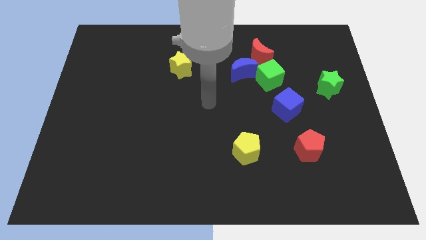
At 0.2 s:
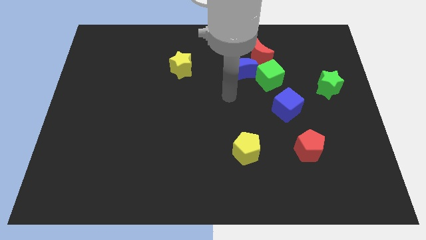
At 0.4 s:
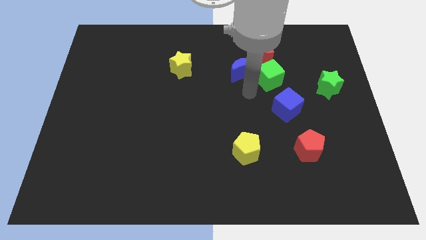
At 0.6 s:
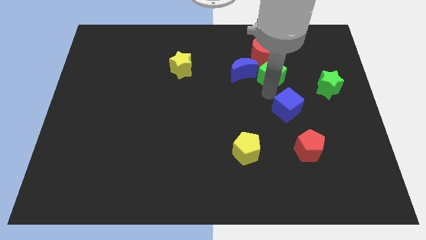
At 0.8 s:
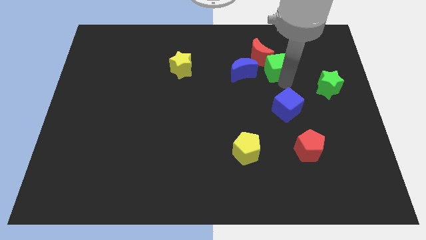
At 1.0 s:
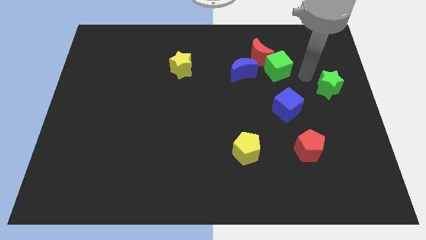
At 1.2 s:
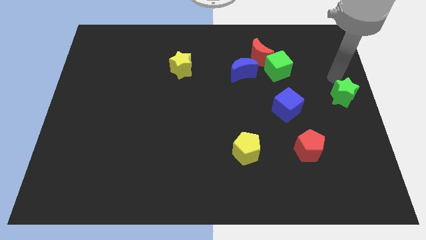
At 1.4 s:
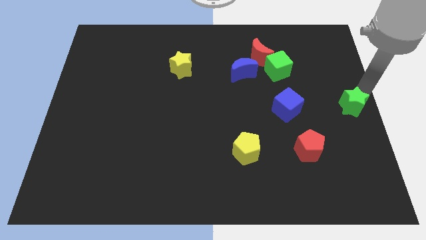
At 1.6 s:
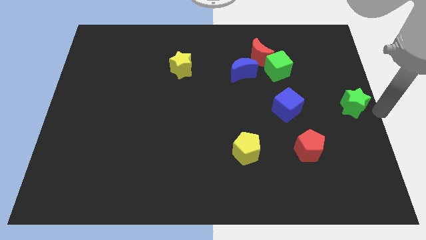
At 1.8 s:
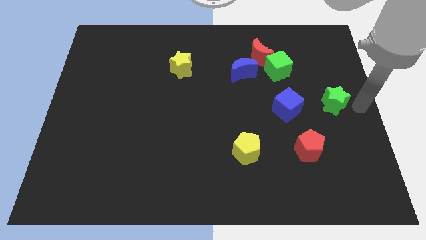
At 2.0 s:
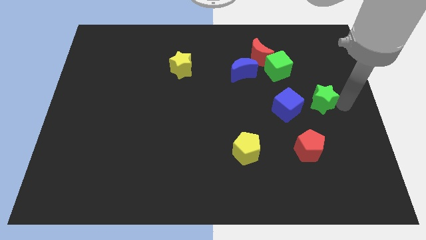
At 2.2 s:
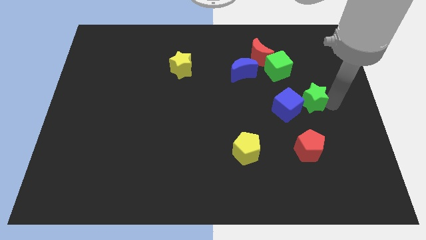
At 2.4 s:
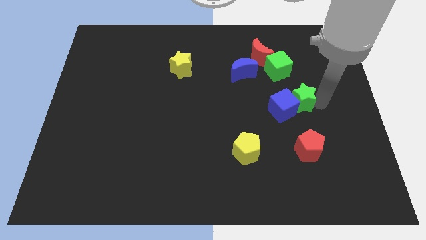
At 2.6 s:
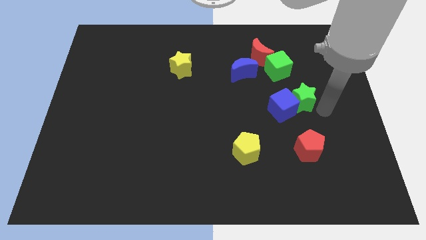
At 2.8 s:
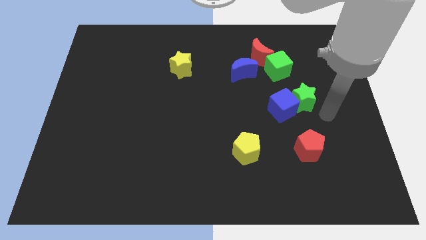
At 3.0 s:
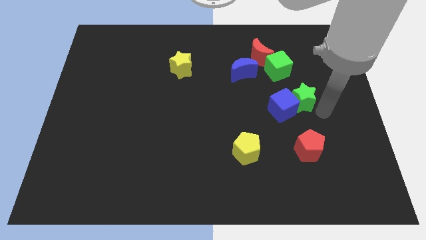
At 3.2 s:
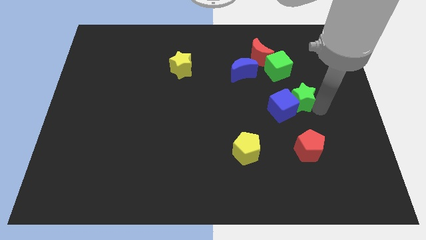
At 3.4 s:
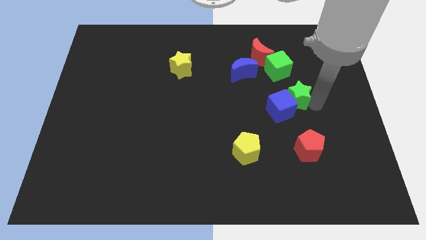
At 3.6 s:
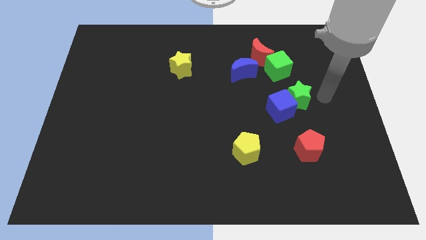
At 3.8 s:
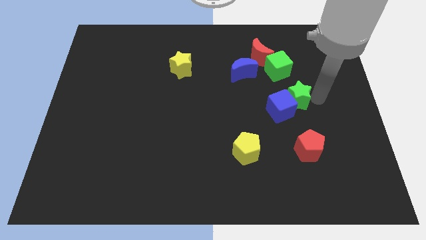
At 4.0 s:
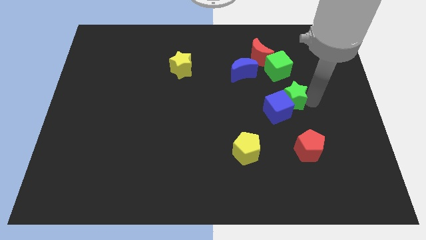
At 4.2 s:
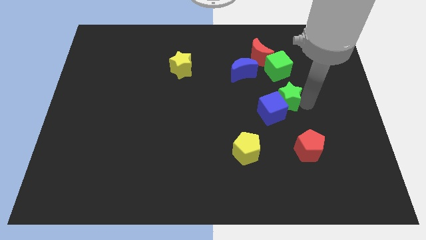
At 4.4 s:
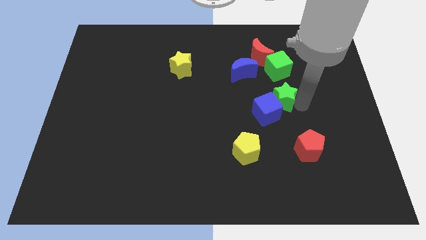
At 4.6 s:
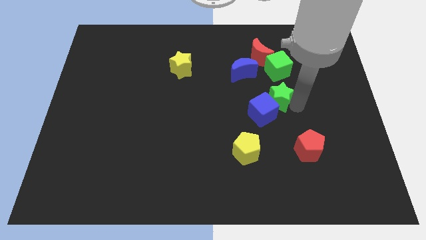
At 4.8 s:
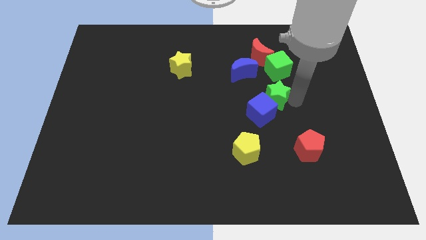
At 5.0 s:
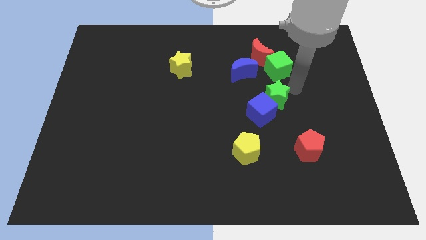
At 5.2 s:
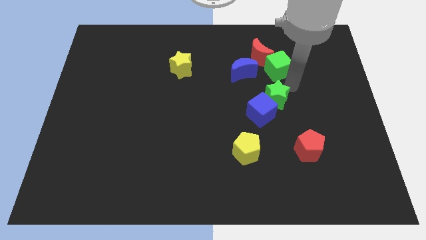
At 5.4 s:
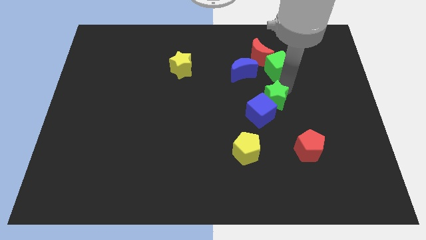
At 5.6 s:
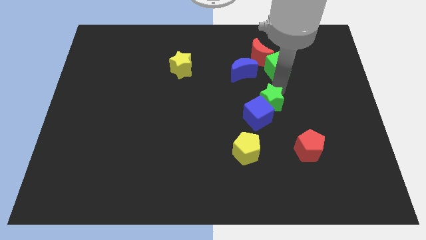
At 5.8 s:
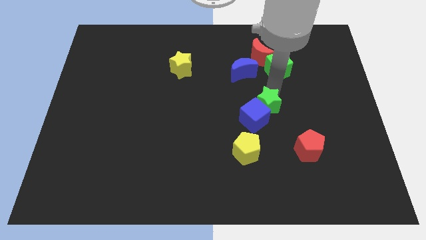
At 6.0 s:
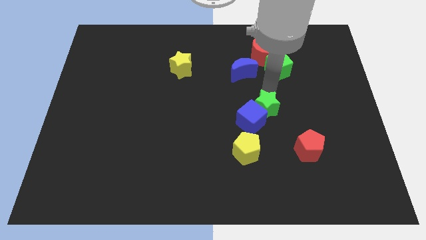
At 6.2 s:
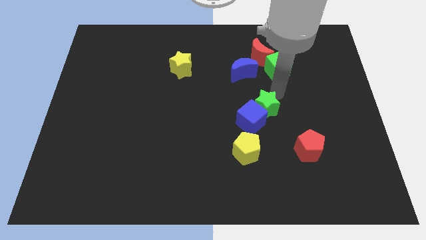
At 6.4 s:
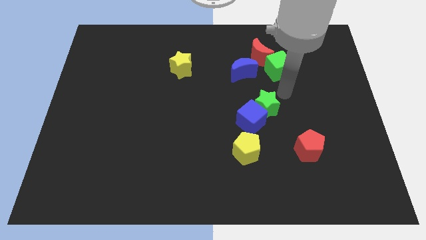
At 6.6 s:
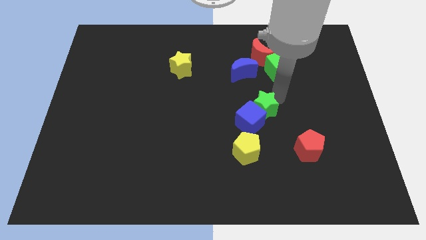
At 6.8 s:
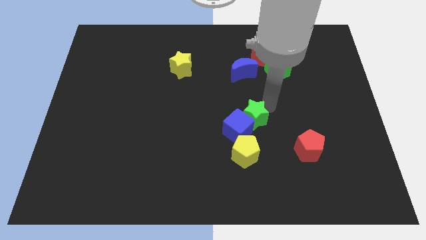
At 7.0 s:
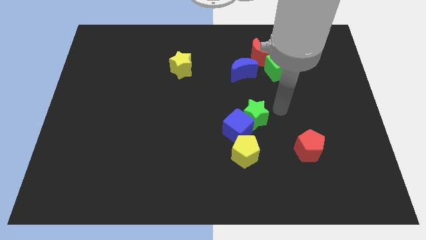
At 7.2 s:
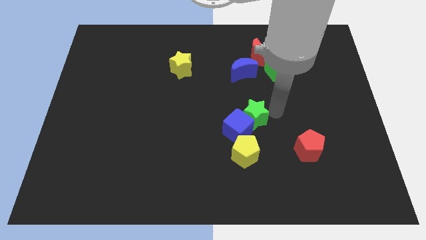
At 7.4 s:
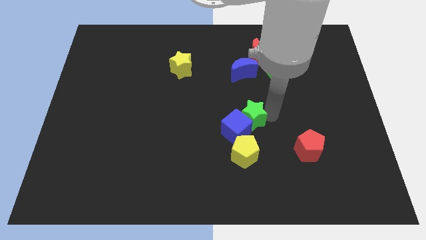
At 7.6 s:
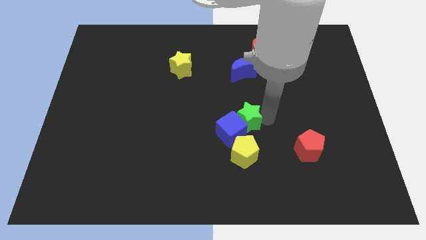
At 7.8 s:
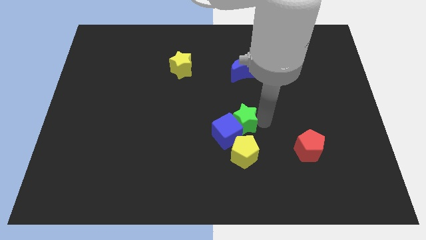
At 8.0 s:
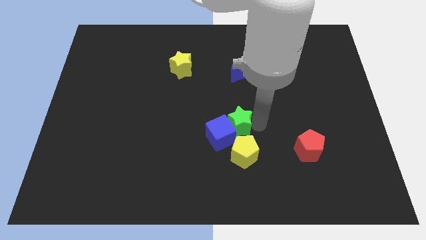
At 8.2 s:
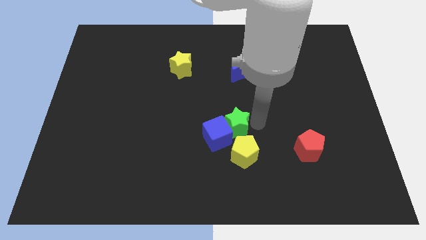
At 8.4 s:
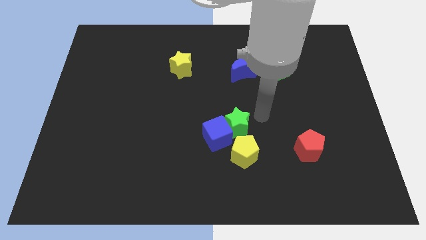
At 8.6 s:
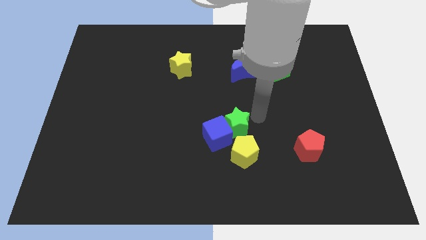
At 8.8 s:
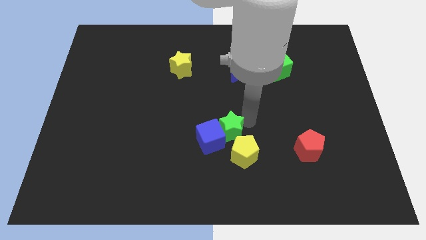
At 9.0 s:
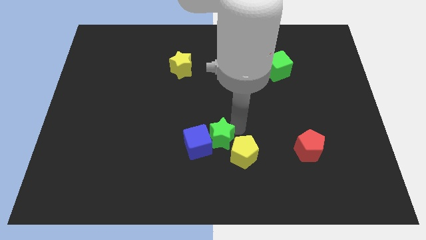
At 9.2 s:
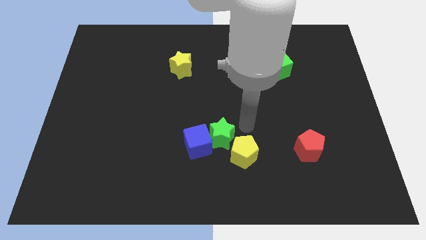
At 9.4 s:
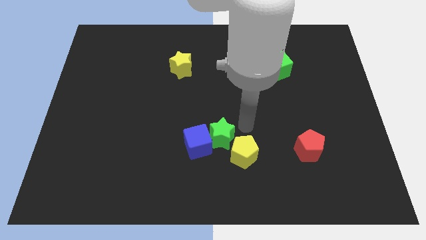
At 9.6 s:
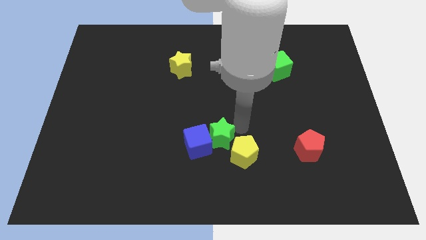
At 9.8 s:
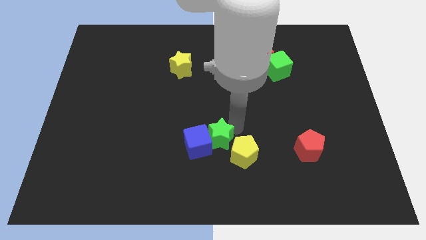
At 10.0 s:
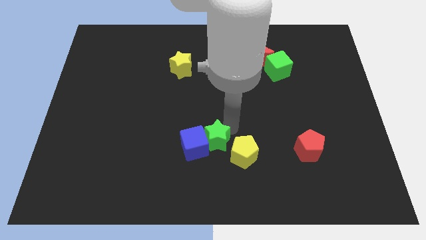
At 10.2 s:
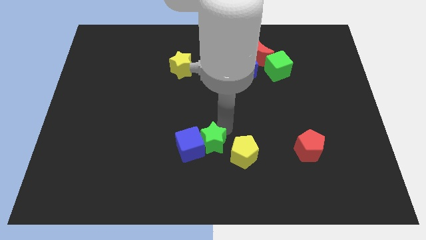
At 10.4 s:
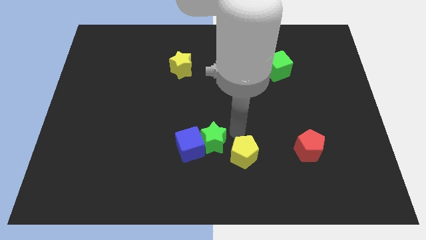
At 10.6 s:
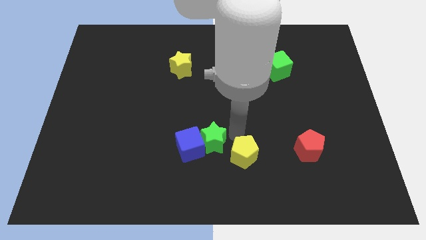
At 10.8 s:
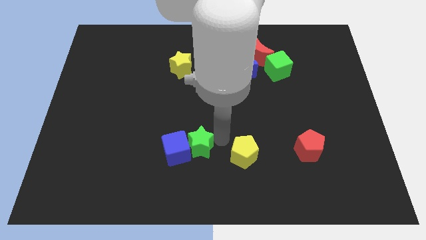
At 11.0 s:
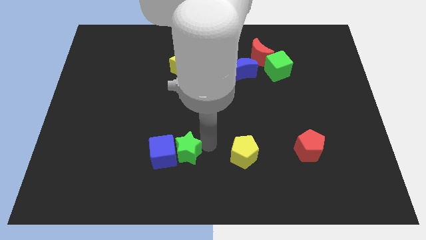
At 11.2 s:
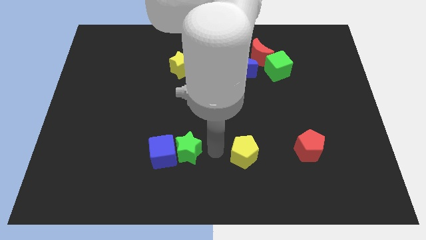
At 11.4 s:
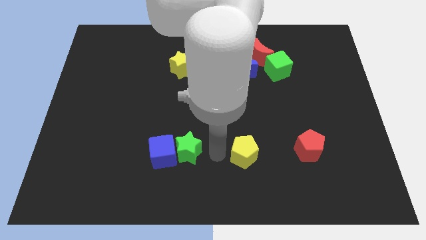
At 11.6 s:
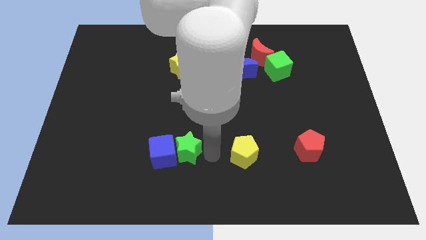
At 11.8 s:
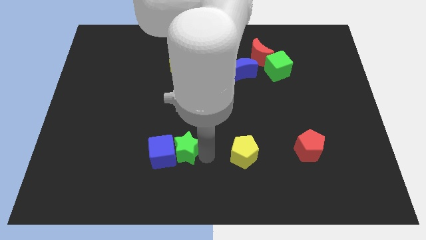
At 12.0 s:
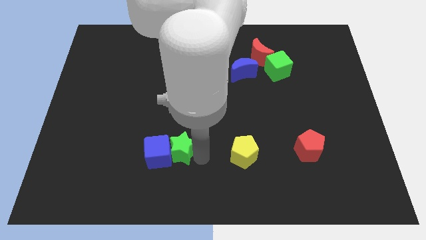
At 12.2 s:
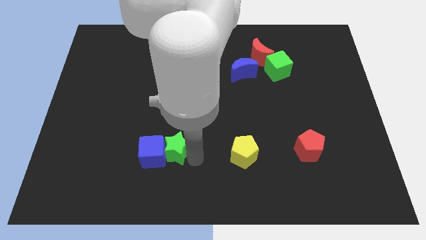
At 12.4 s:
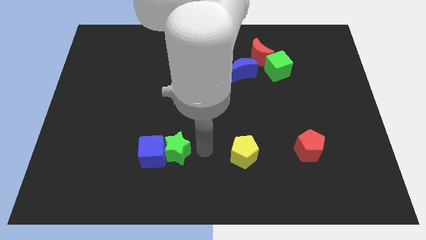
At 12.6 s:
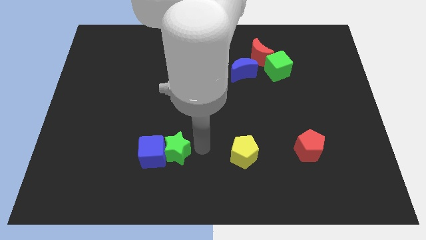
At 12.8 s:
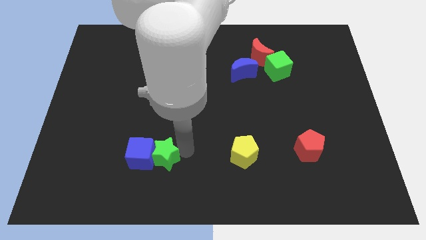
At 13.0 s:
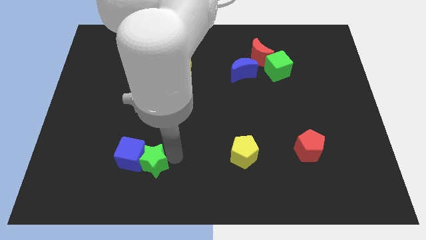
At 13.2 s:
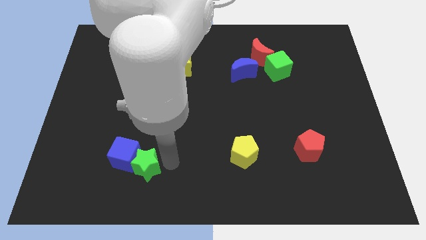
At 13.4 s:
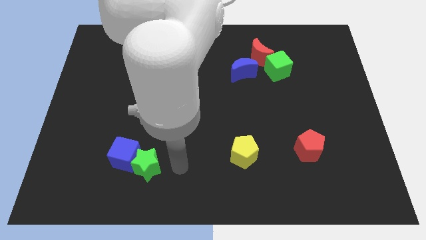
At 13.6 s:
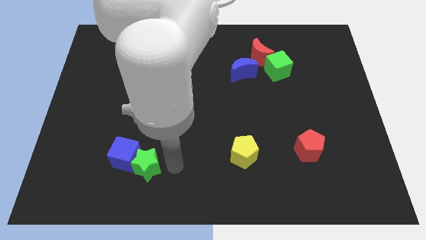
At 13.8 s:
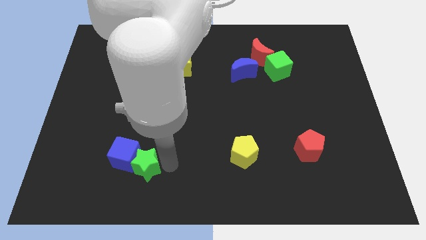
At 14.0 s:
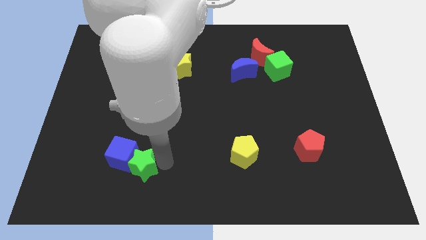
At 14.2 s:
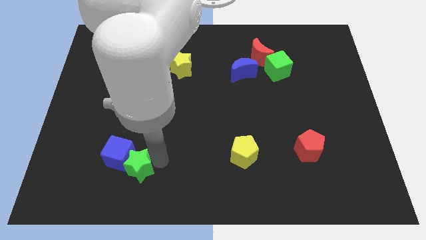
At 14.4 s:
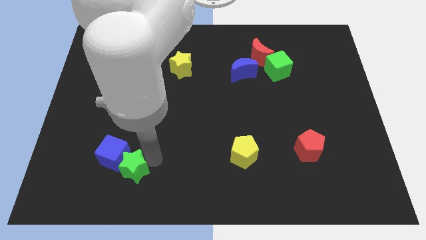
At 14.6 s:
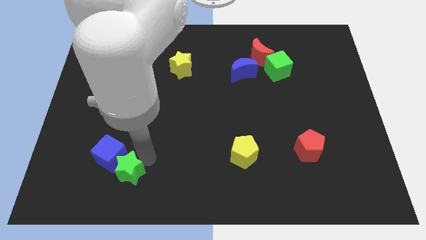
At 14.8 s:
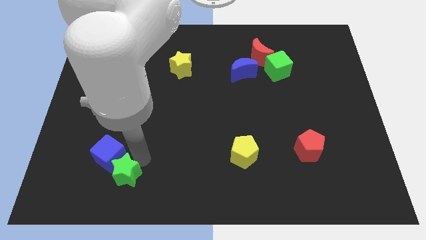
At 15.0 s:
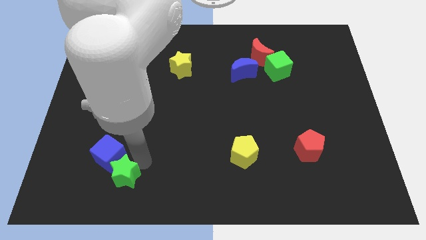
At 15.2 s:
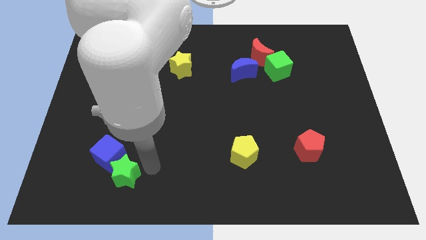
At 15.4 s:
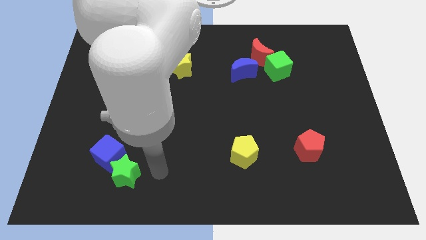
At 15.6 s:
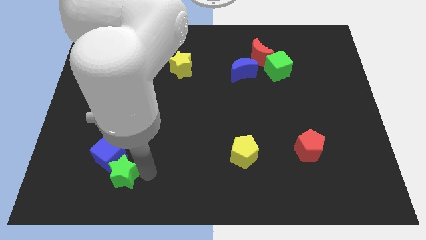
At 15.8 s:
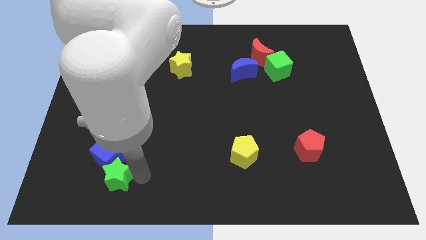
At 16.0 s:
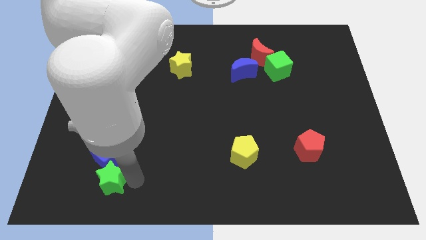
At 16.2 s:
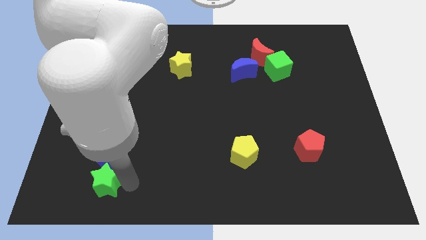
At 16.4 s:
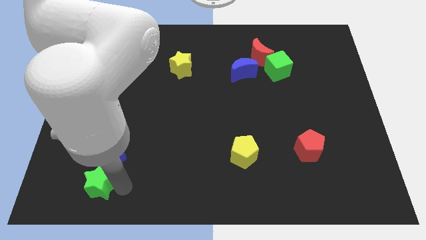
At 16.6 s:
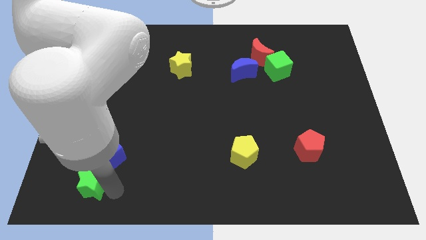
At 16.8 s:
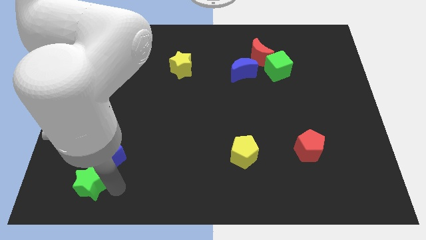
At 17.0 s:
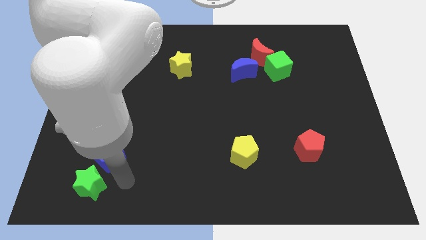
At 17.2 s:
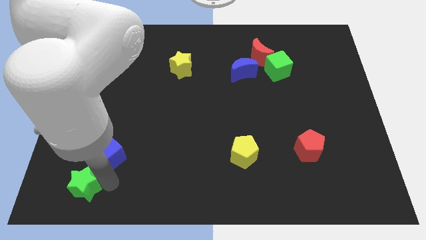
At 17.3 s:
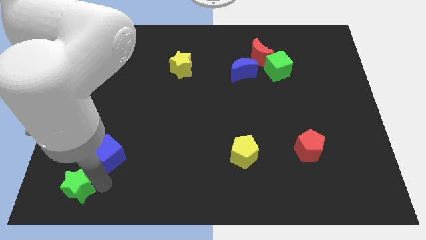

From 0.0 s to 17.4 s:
move the green star to the lower left corner
